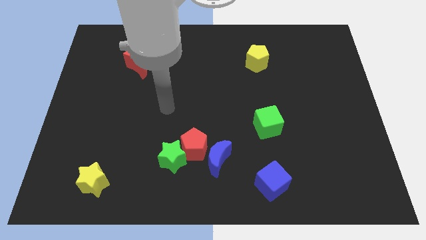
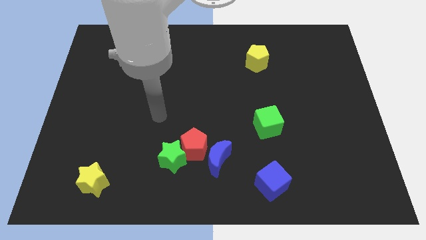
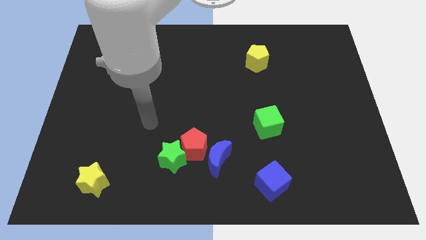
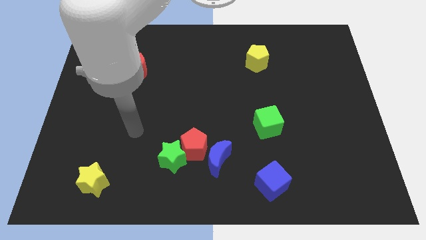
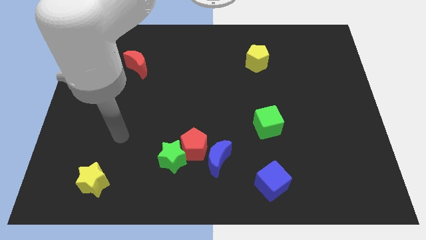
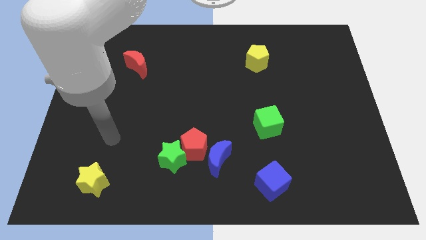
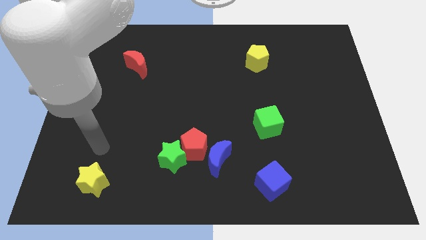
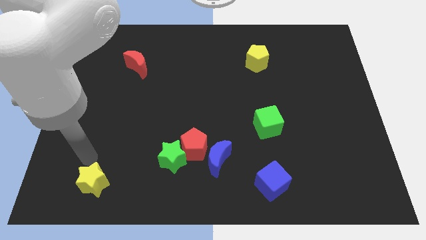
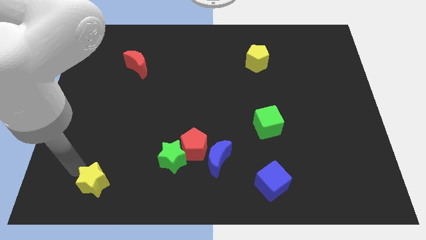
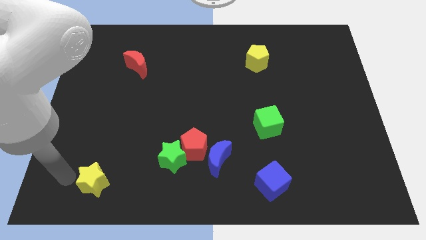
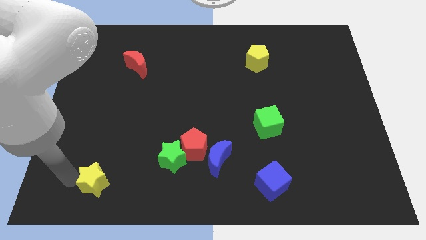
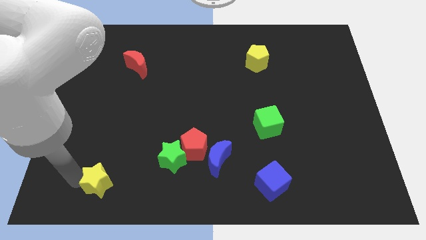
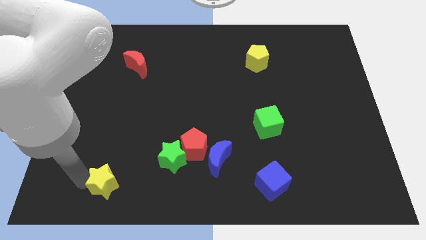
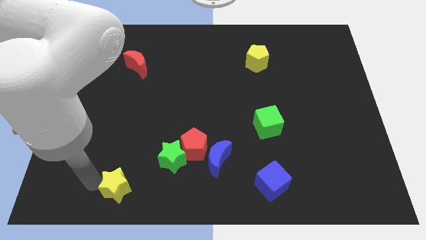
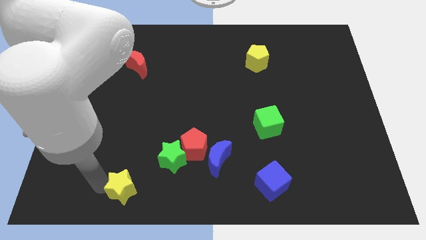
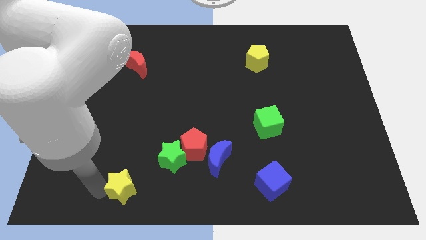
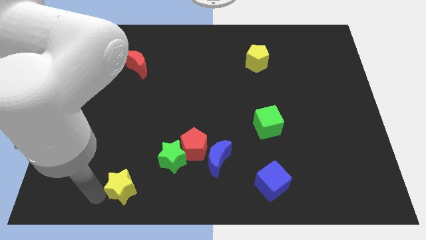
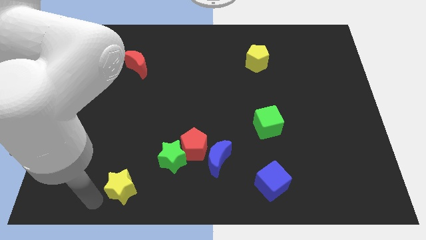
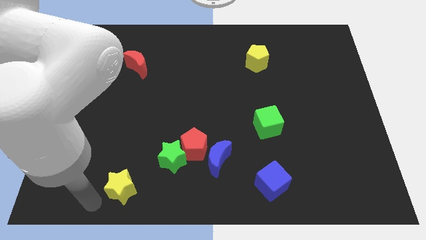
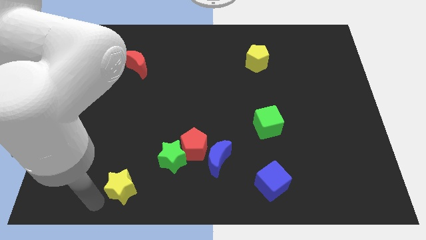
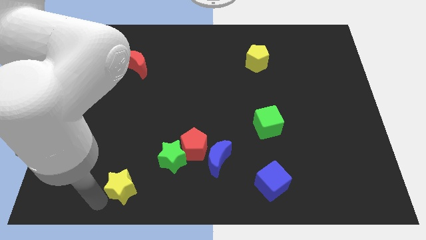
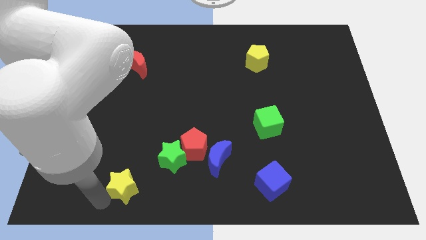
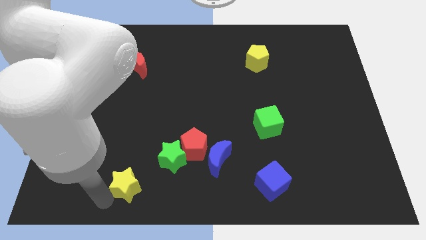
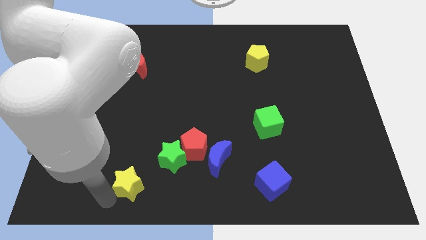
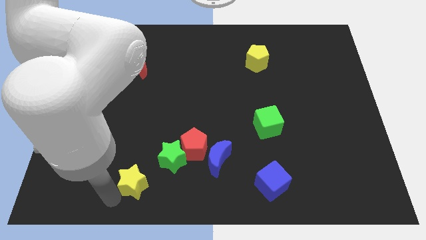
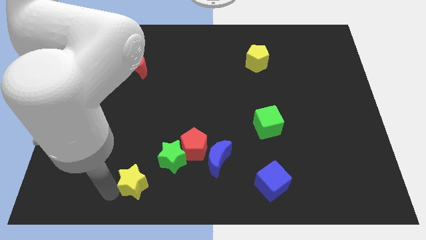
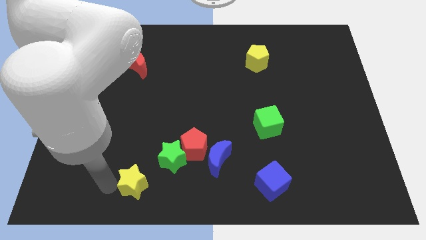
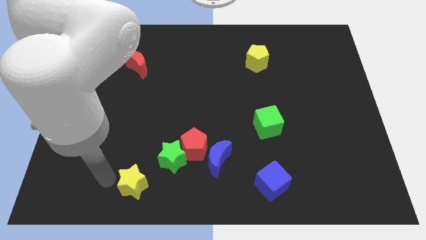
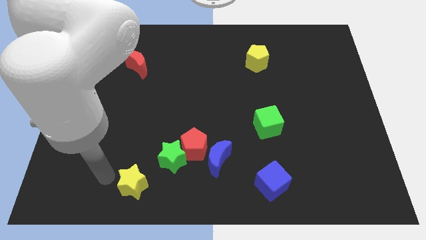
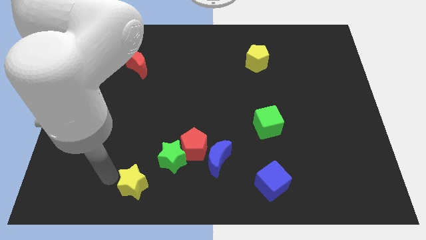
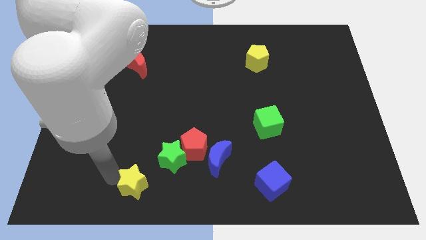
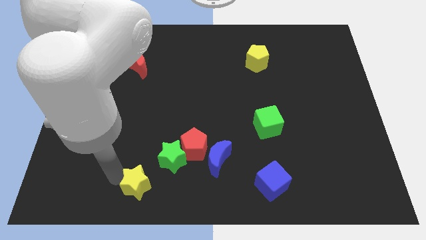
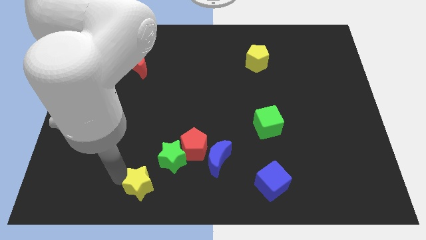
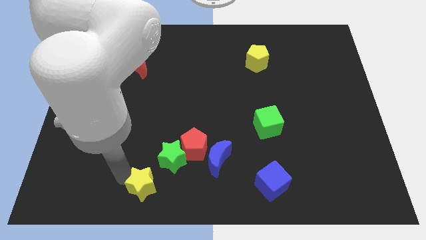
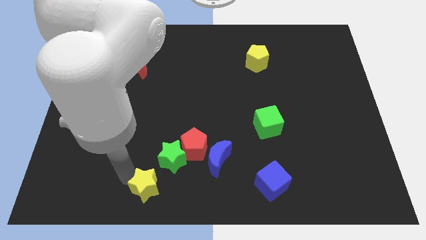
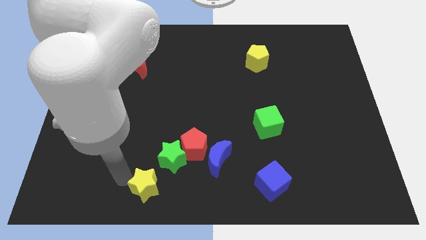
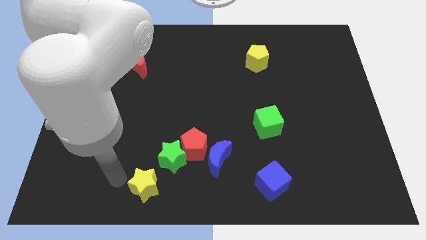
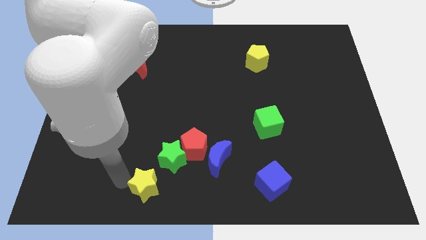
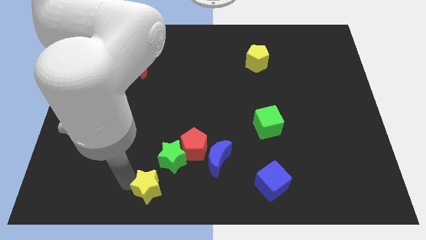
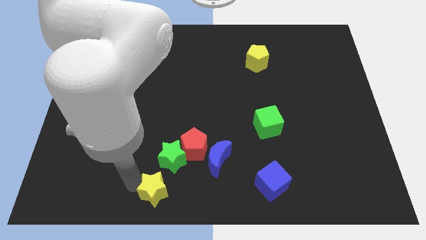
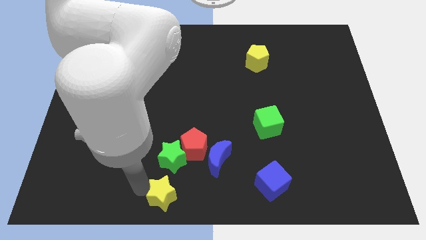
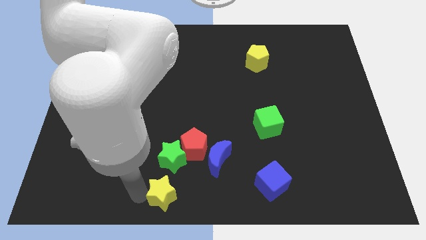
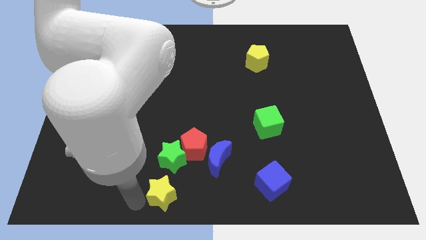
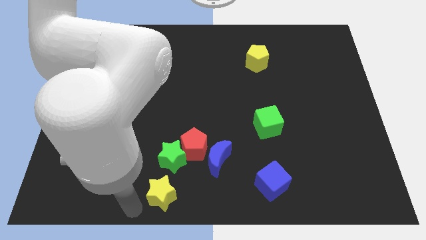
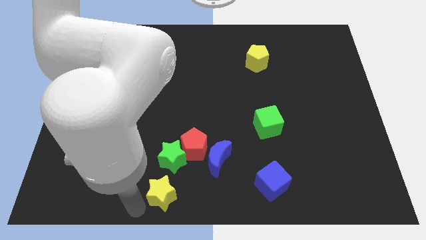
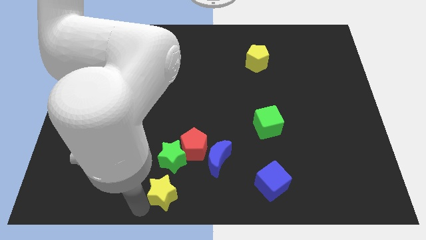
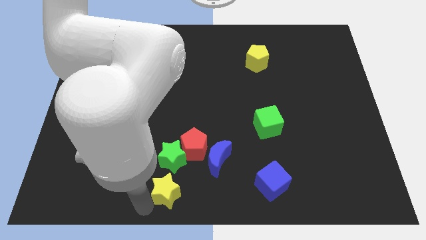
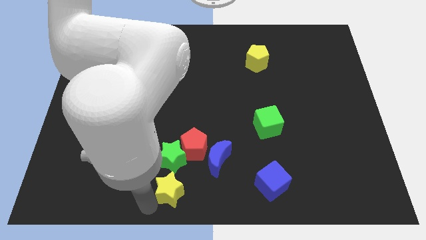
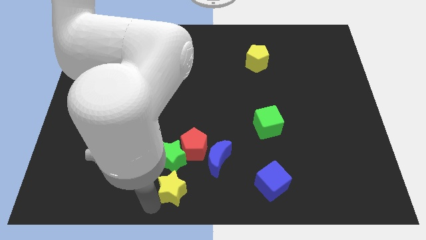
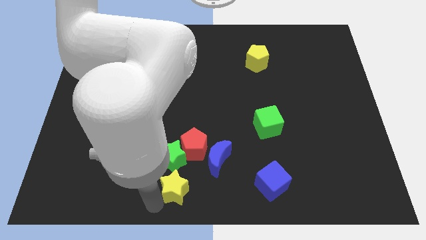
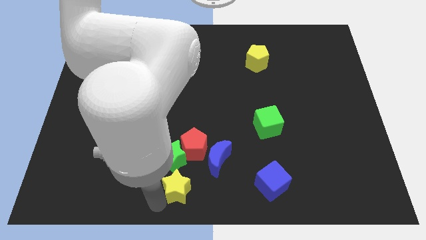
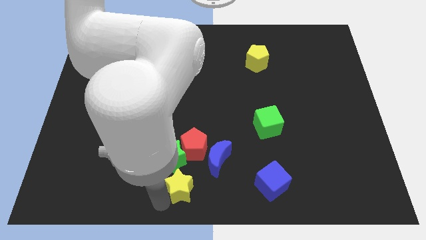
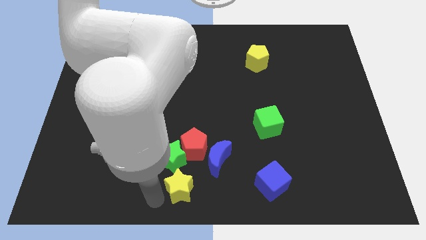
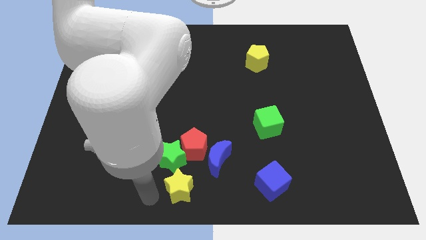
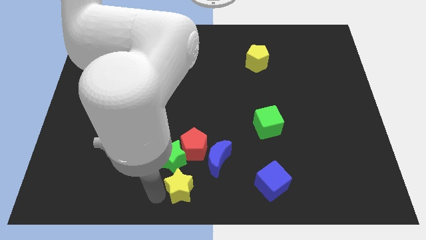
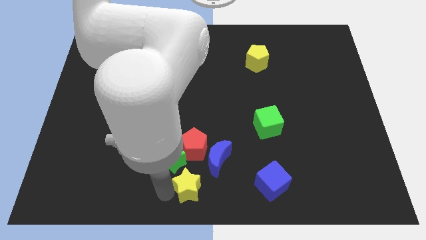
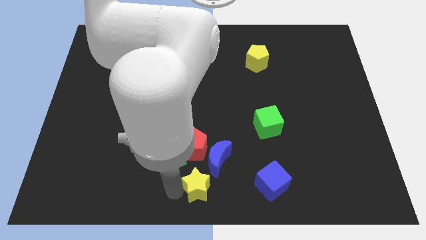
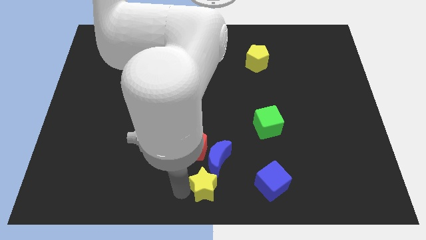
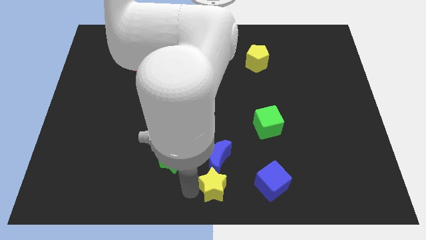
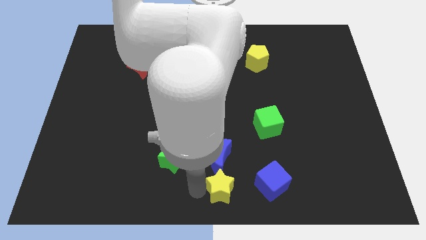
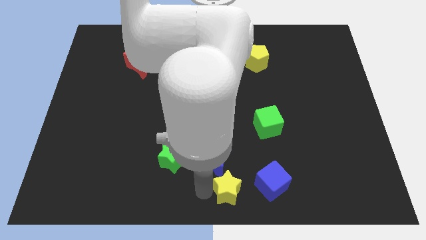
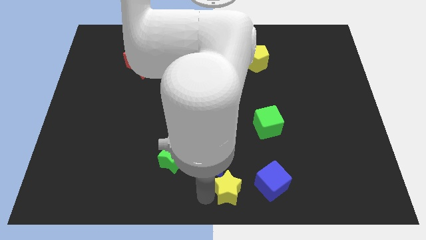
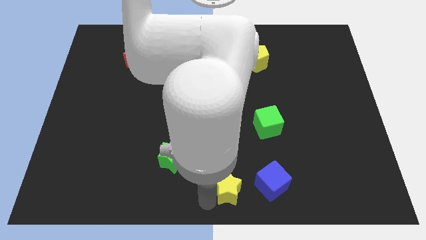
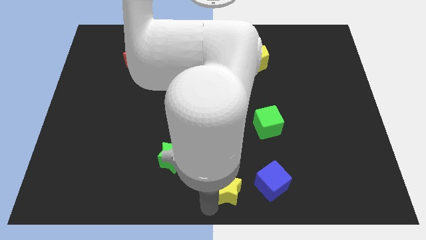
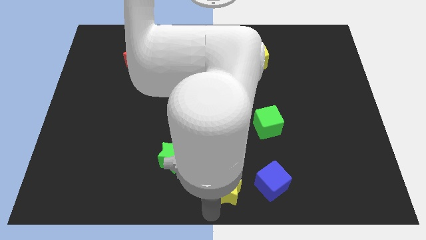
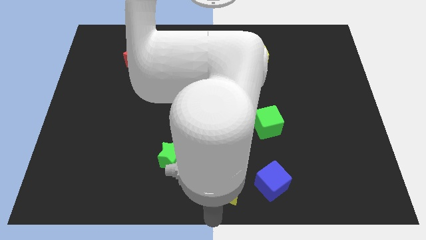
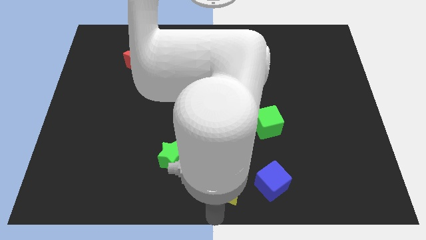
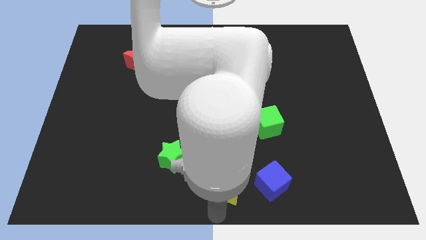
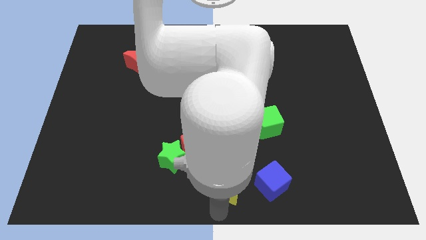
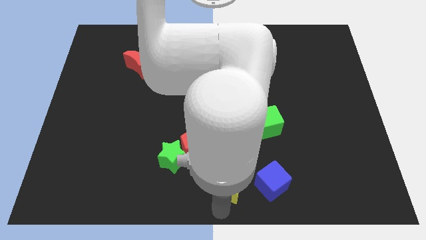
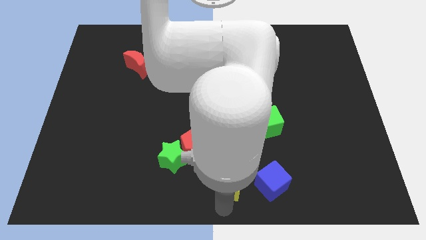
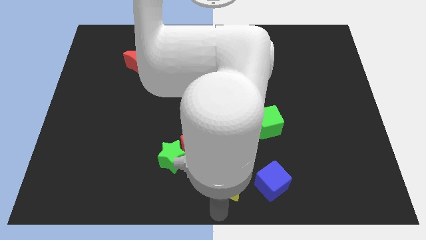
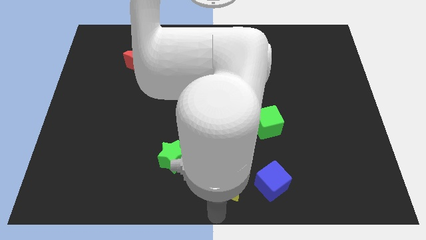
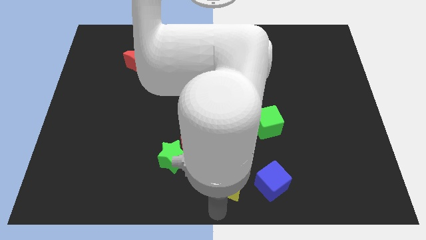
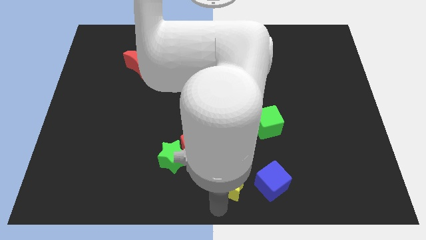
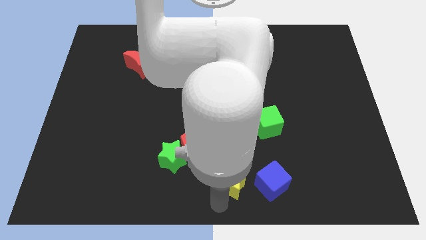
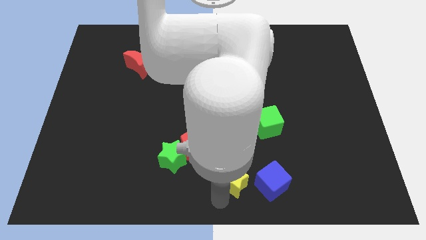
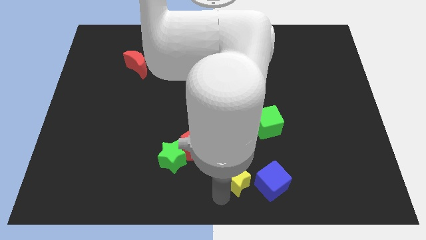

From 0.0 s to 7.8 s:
push the yellow star to the top left of the blue cube
